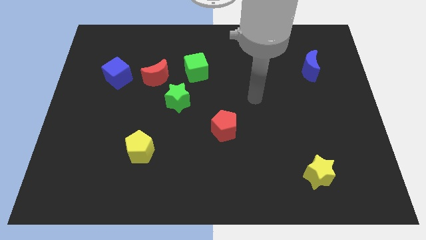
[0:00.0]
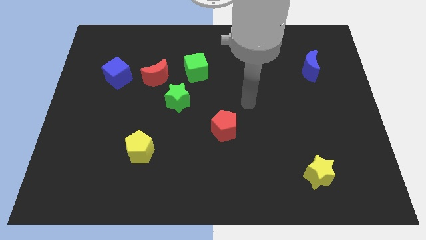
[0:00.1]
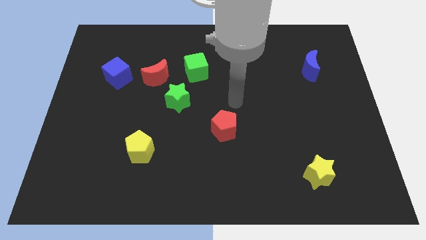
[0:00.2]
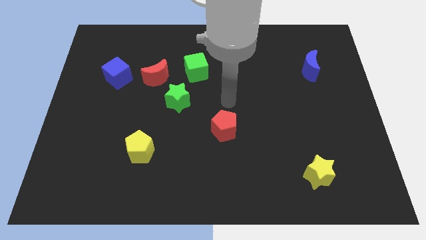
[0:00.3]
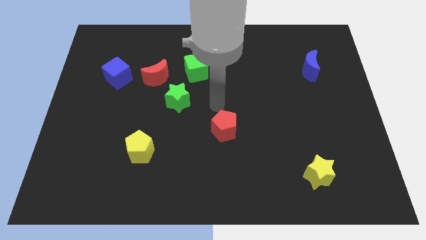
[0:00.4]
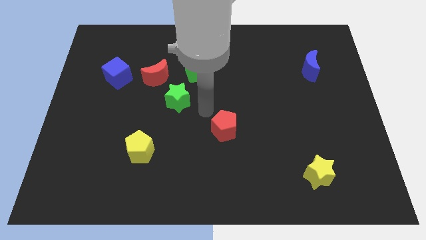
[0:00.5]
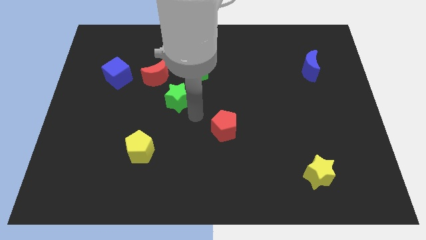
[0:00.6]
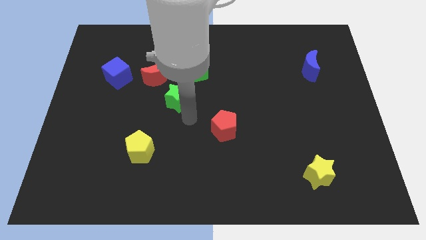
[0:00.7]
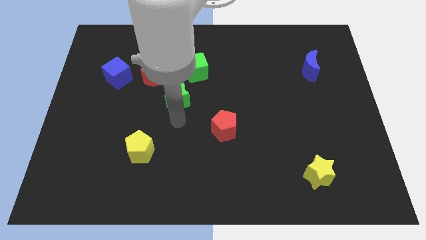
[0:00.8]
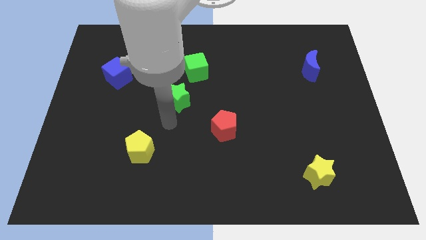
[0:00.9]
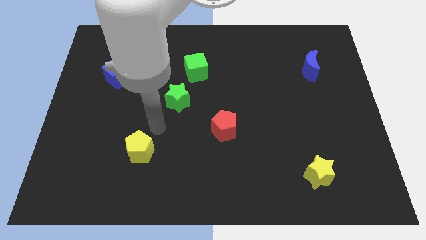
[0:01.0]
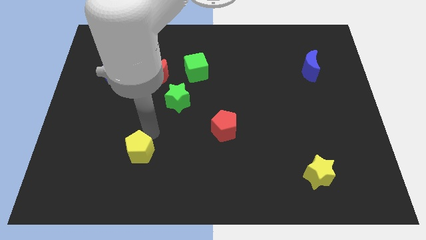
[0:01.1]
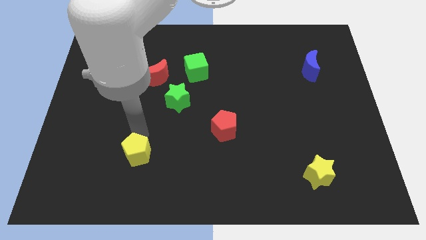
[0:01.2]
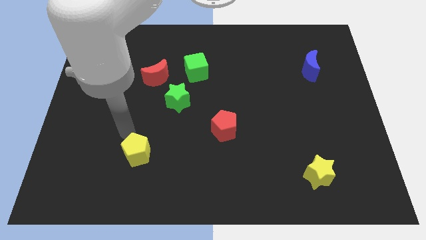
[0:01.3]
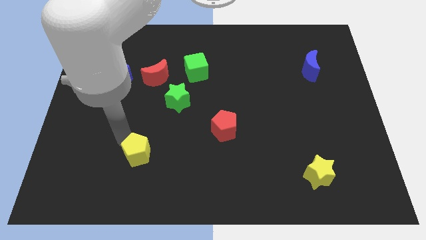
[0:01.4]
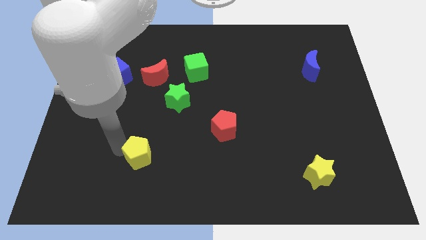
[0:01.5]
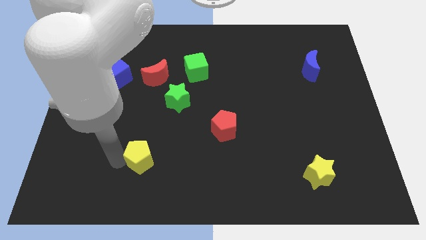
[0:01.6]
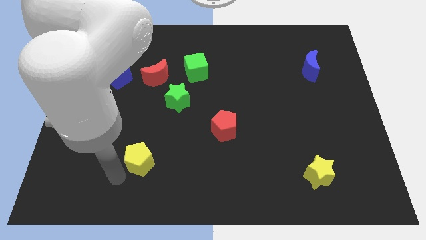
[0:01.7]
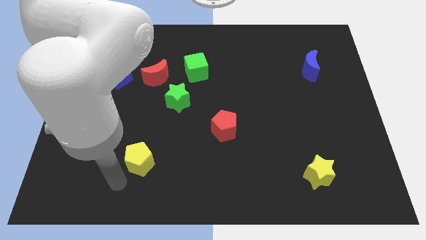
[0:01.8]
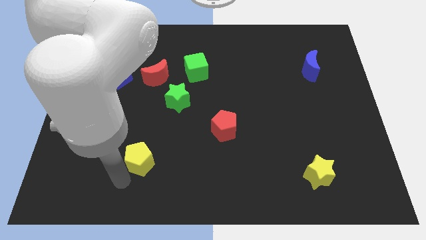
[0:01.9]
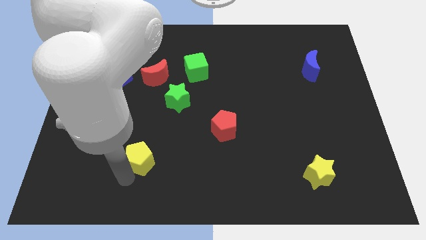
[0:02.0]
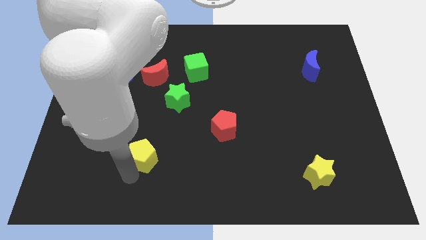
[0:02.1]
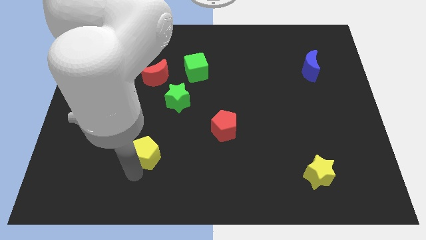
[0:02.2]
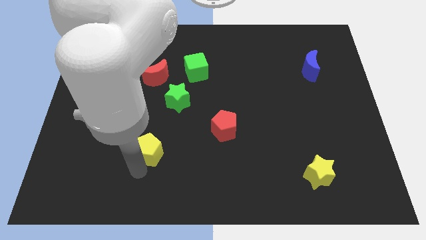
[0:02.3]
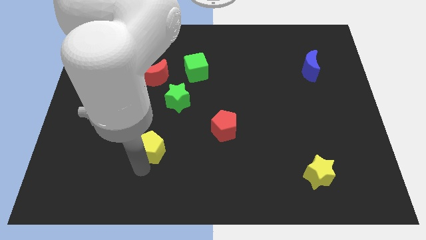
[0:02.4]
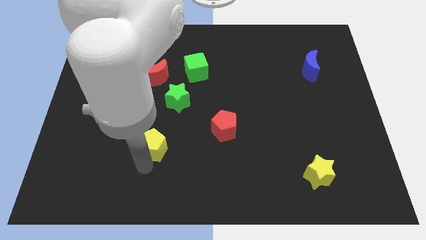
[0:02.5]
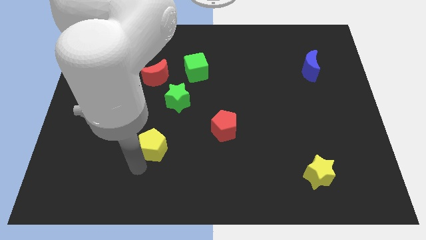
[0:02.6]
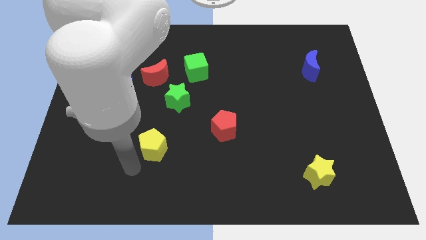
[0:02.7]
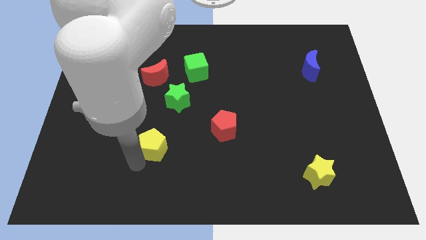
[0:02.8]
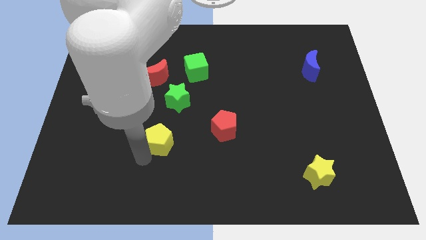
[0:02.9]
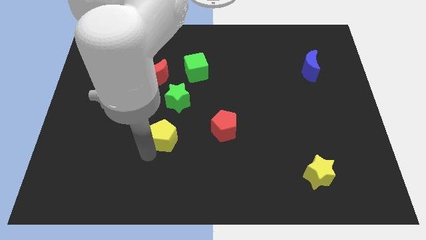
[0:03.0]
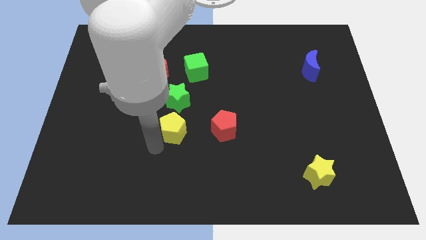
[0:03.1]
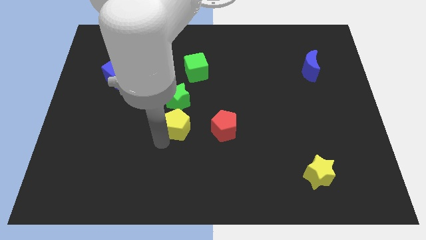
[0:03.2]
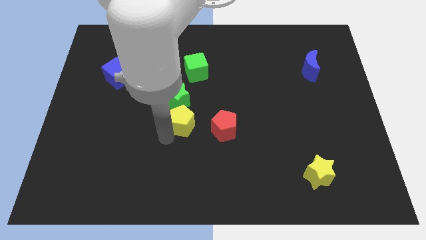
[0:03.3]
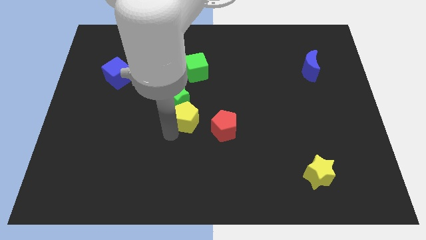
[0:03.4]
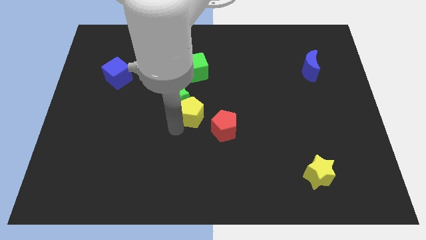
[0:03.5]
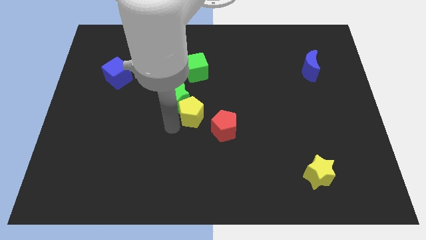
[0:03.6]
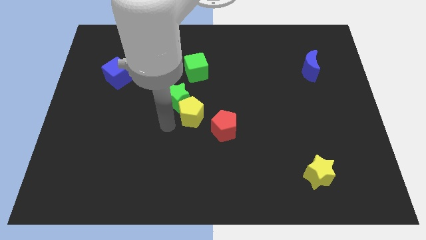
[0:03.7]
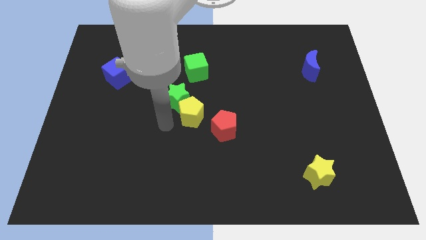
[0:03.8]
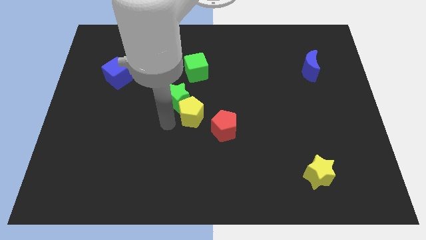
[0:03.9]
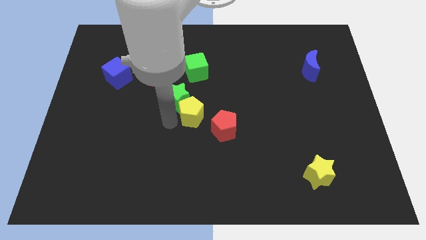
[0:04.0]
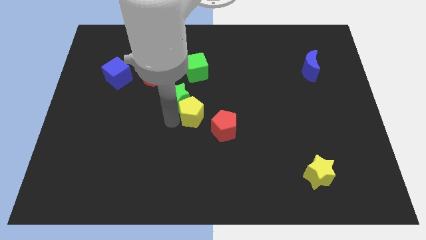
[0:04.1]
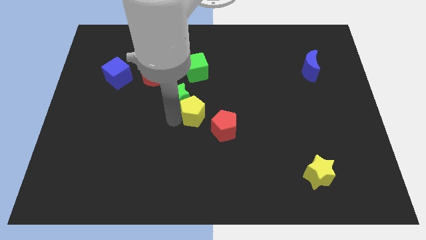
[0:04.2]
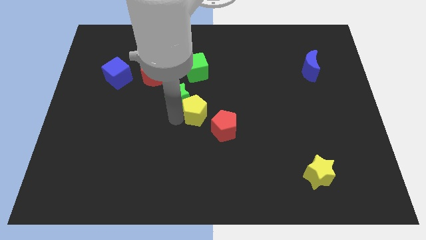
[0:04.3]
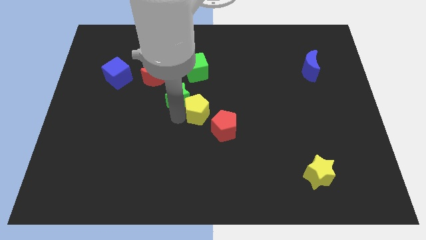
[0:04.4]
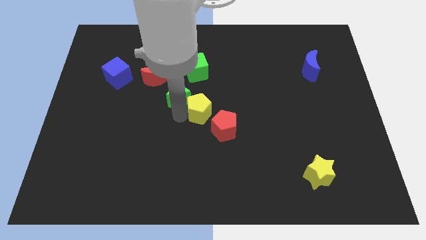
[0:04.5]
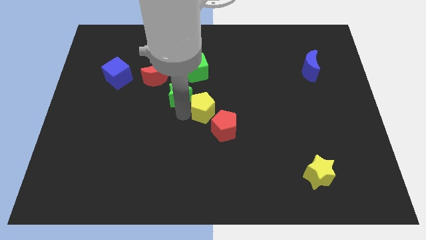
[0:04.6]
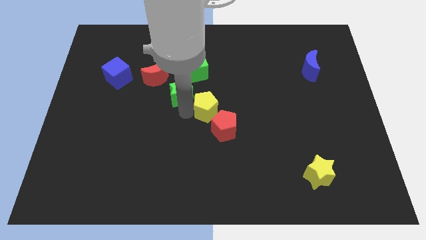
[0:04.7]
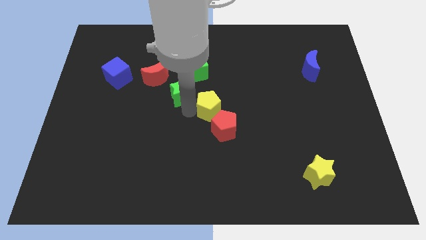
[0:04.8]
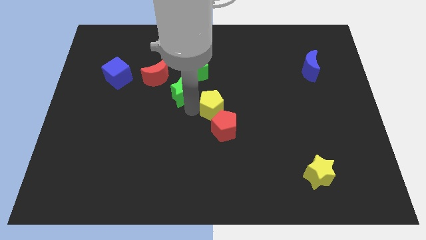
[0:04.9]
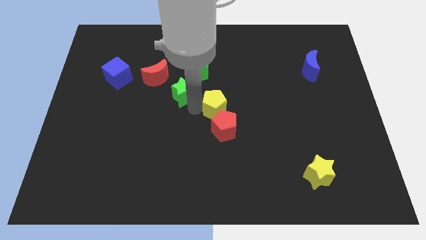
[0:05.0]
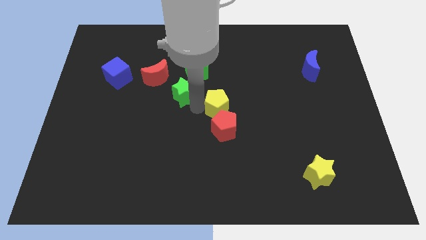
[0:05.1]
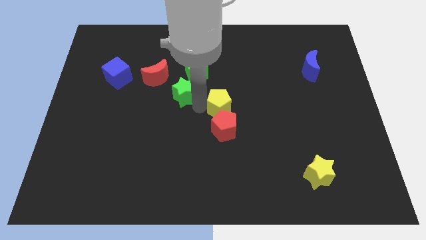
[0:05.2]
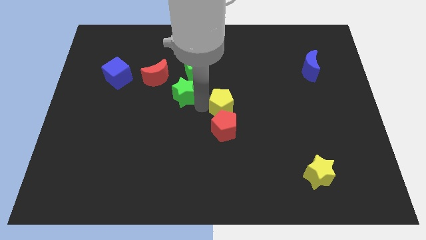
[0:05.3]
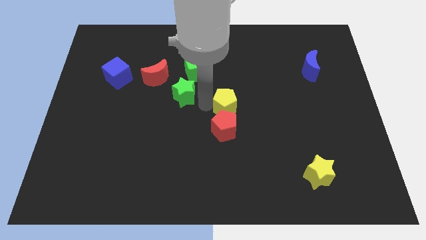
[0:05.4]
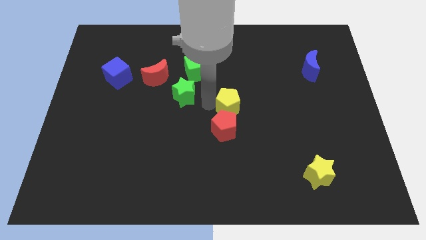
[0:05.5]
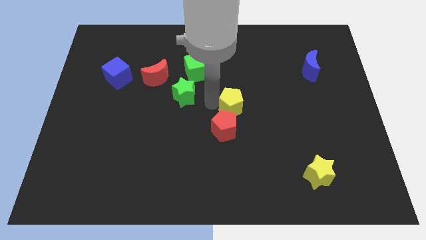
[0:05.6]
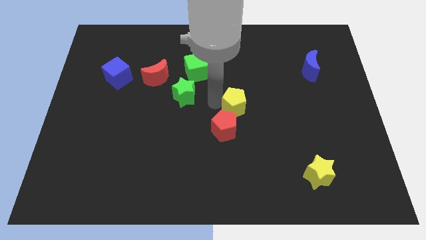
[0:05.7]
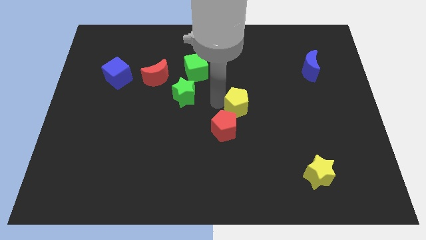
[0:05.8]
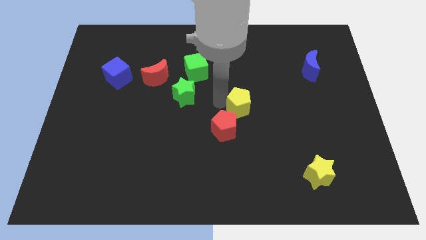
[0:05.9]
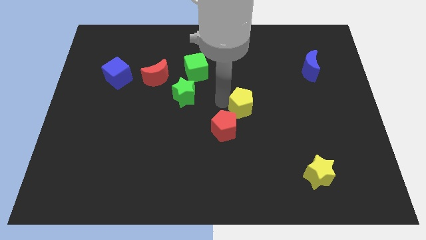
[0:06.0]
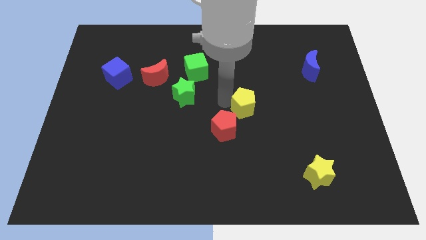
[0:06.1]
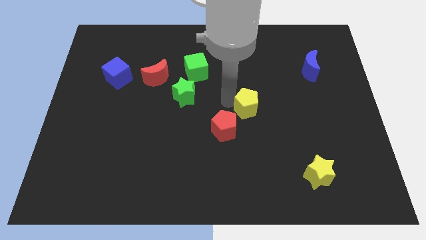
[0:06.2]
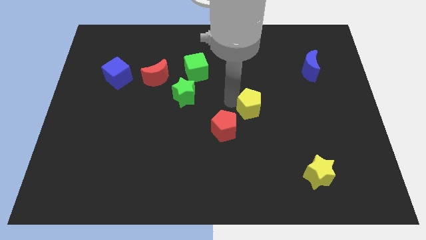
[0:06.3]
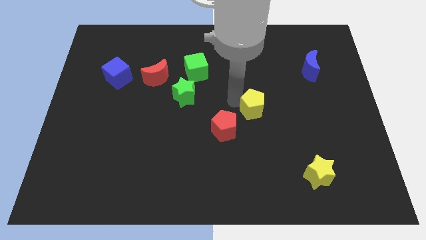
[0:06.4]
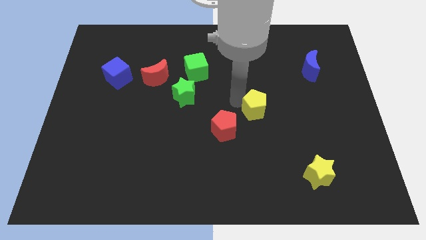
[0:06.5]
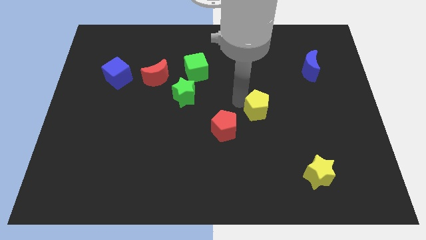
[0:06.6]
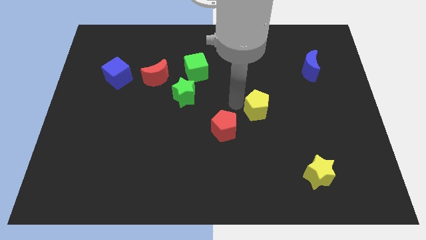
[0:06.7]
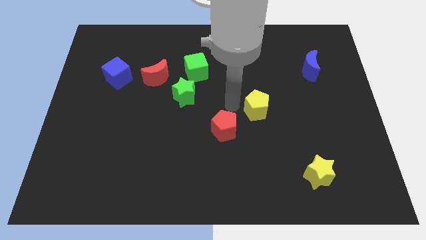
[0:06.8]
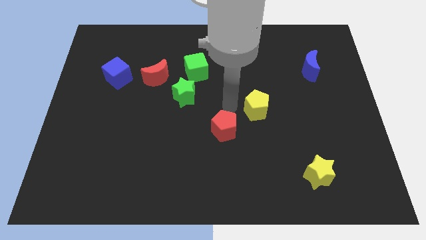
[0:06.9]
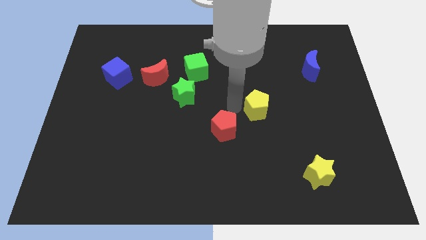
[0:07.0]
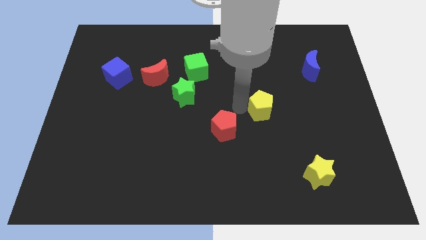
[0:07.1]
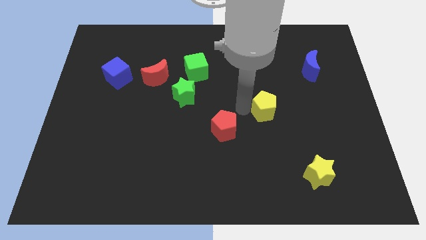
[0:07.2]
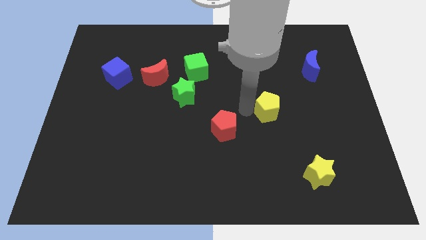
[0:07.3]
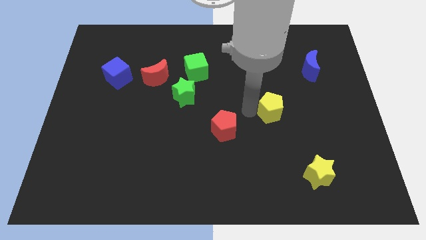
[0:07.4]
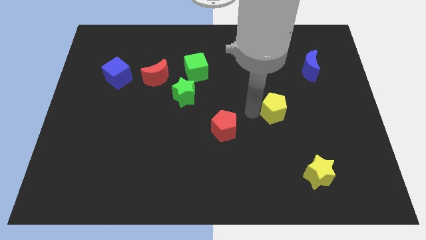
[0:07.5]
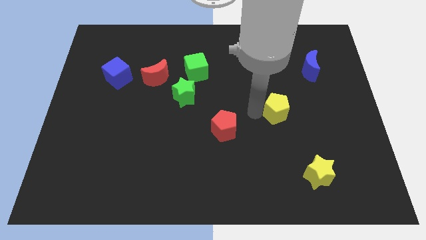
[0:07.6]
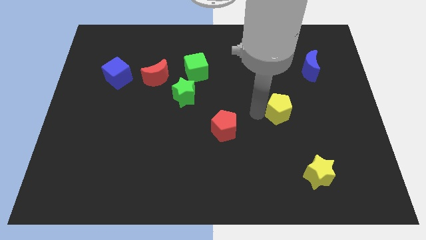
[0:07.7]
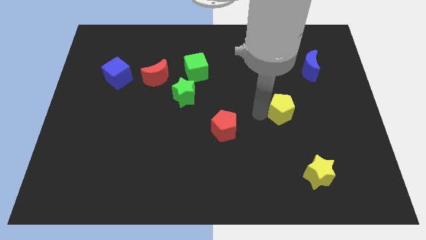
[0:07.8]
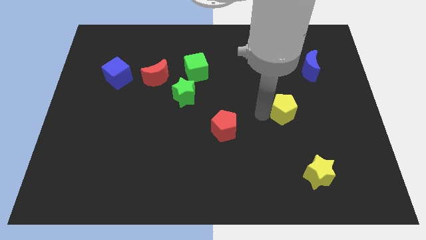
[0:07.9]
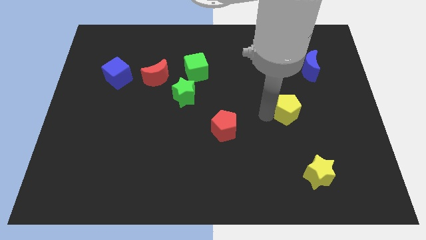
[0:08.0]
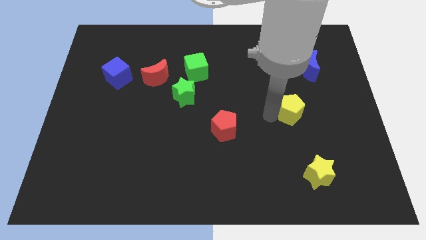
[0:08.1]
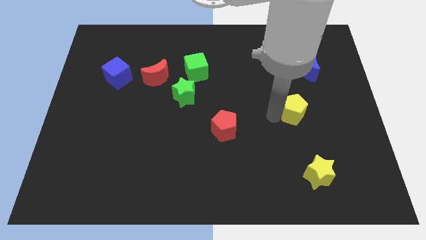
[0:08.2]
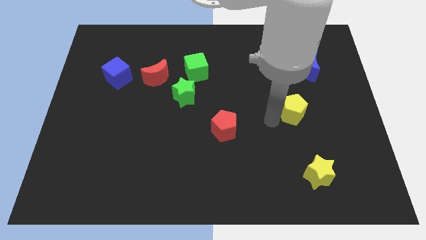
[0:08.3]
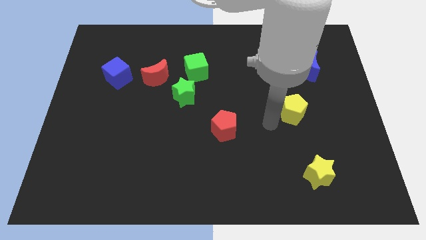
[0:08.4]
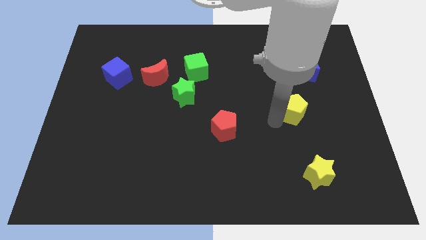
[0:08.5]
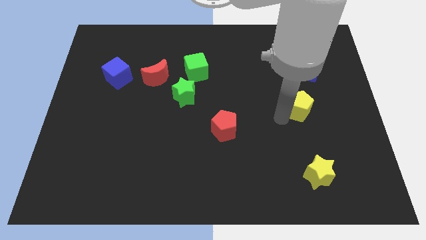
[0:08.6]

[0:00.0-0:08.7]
move the yellow pentagon to the bottom side of the blue moon
